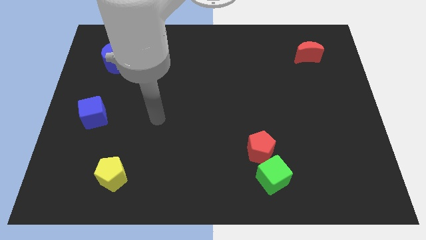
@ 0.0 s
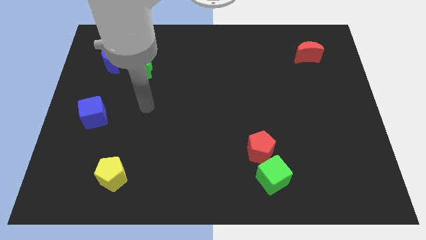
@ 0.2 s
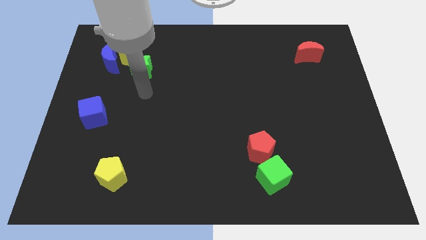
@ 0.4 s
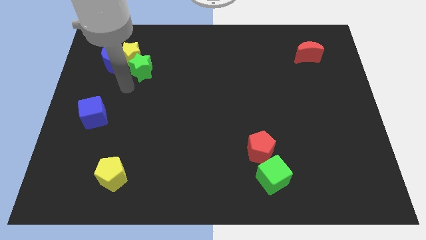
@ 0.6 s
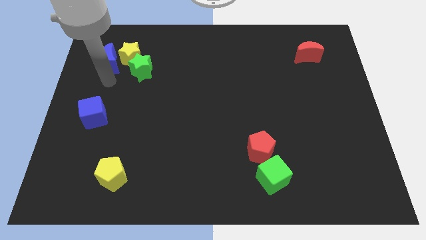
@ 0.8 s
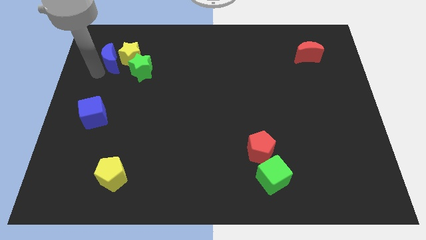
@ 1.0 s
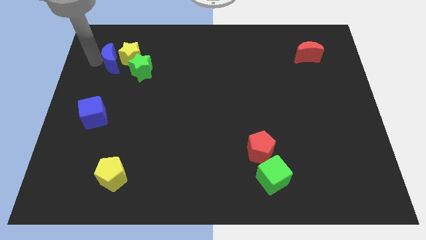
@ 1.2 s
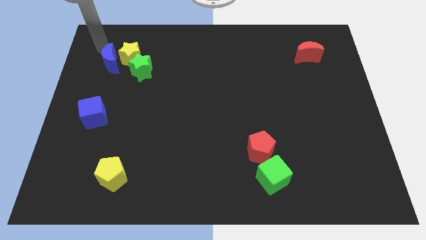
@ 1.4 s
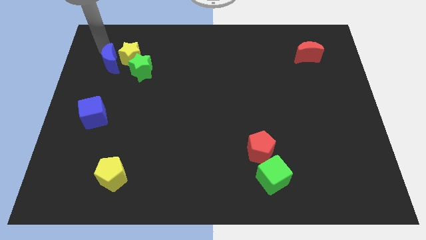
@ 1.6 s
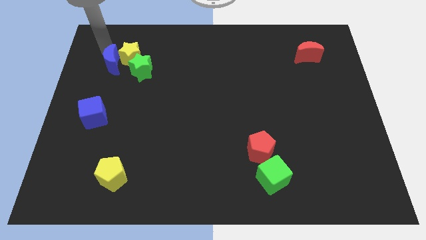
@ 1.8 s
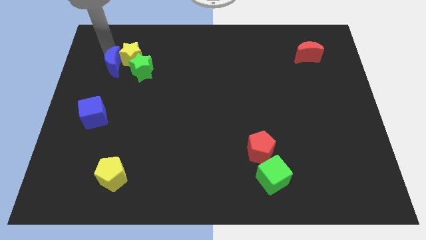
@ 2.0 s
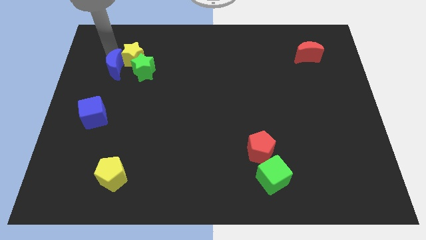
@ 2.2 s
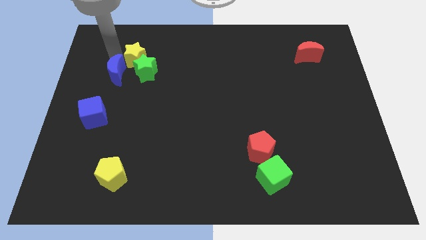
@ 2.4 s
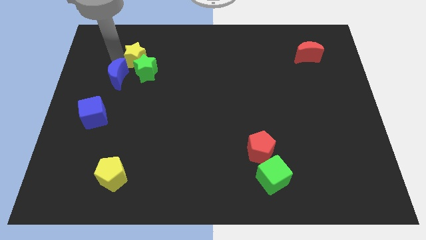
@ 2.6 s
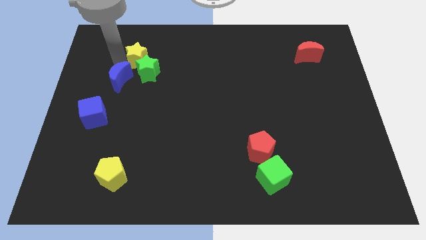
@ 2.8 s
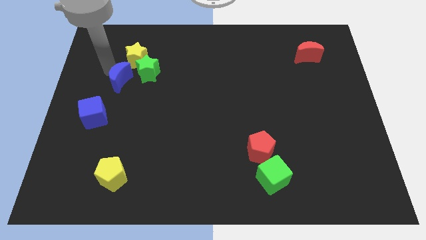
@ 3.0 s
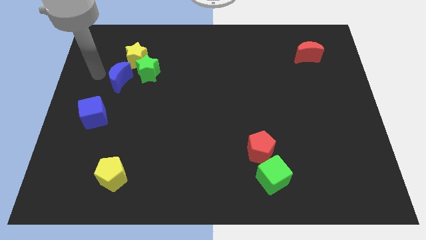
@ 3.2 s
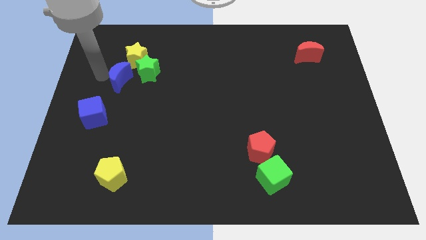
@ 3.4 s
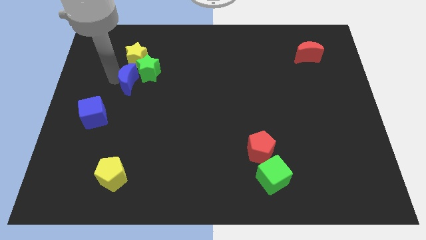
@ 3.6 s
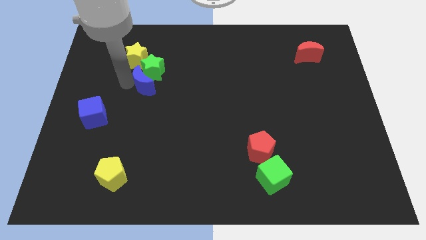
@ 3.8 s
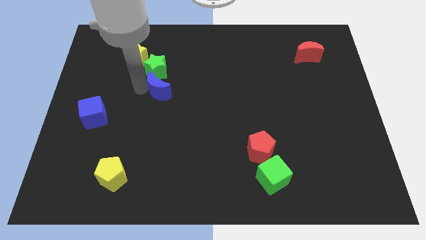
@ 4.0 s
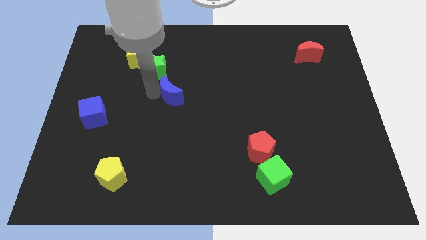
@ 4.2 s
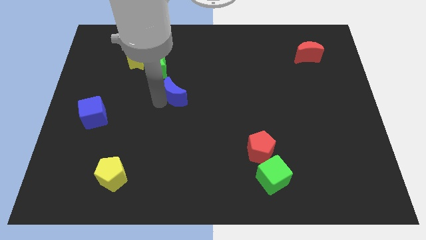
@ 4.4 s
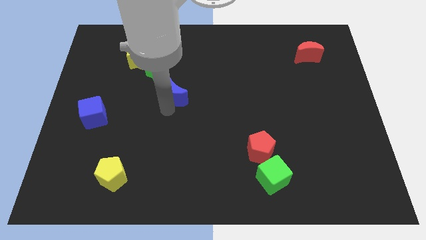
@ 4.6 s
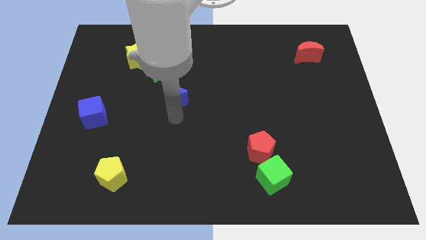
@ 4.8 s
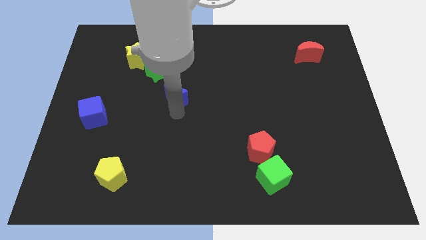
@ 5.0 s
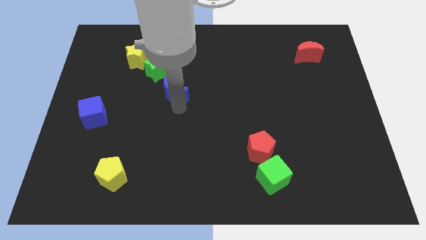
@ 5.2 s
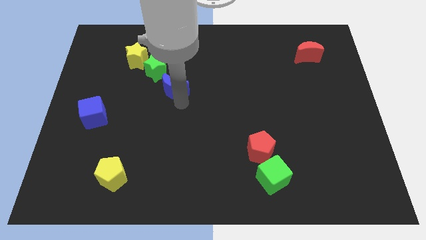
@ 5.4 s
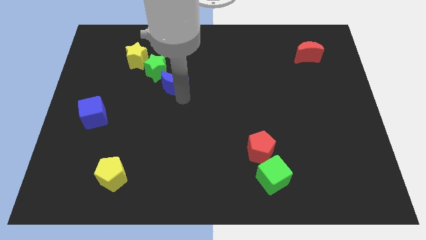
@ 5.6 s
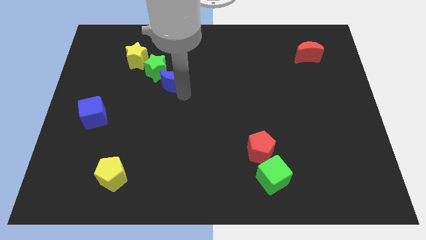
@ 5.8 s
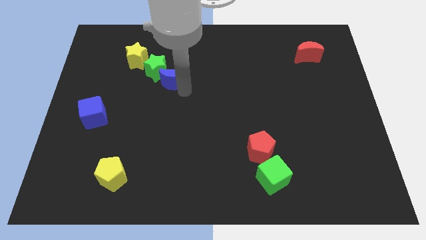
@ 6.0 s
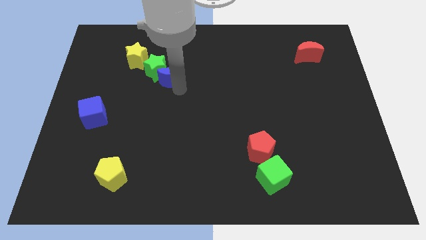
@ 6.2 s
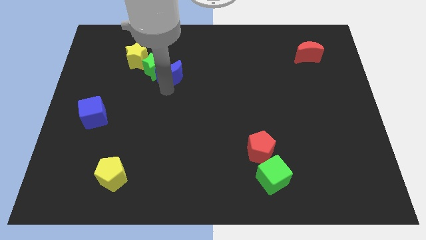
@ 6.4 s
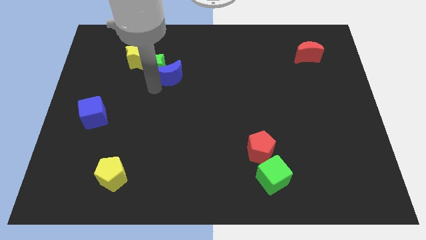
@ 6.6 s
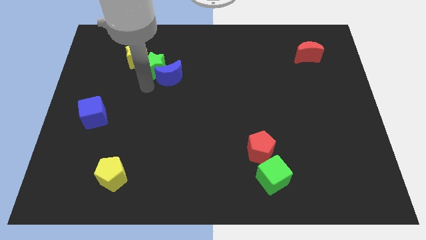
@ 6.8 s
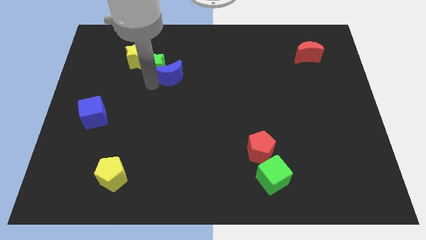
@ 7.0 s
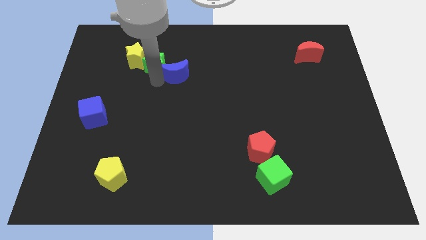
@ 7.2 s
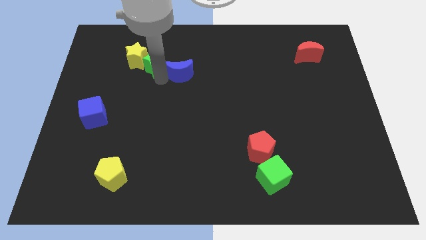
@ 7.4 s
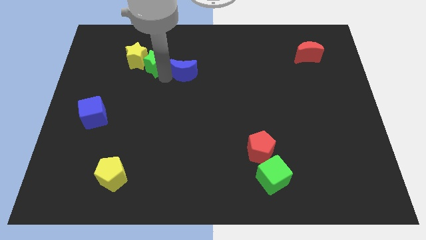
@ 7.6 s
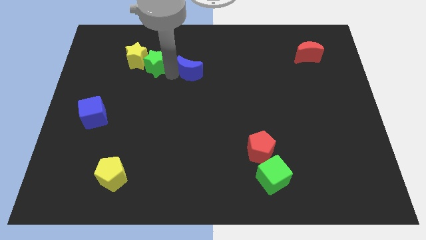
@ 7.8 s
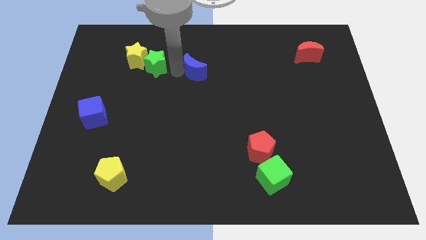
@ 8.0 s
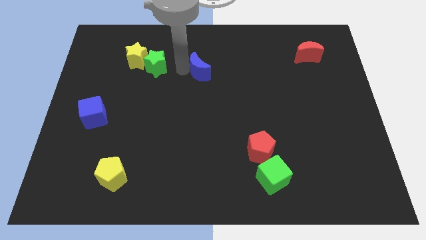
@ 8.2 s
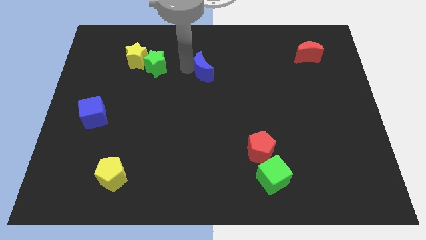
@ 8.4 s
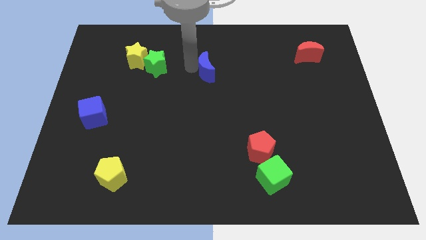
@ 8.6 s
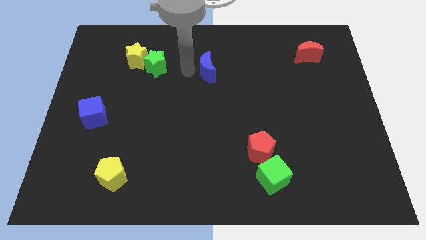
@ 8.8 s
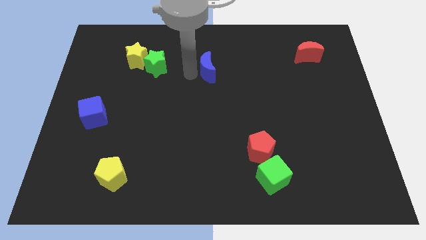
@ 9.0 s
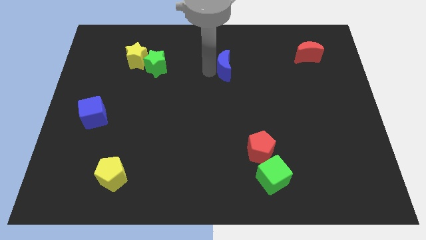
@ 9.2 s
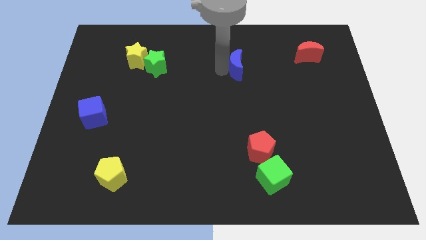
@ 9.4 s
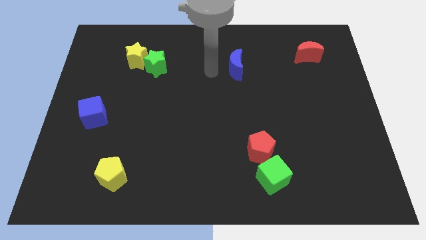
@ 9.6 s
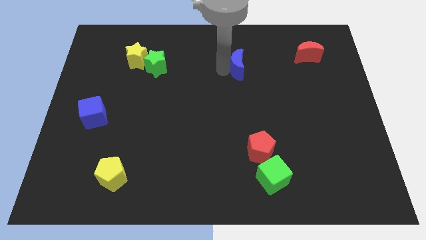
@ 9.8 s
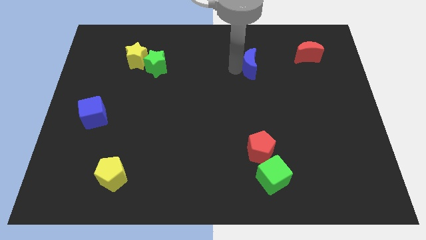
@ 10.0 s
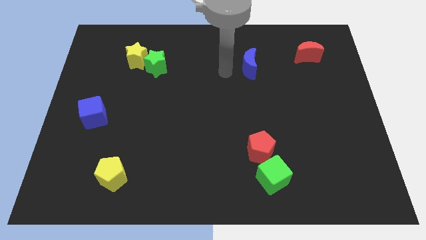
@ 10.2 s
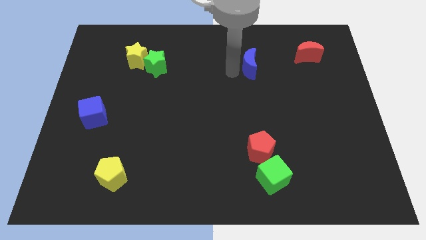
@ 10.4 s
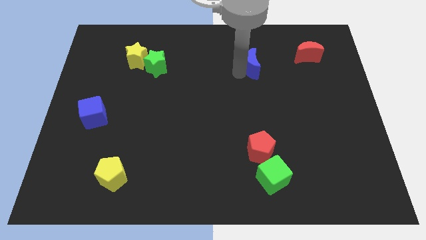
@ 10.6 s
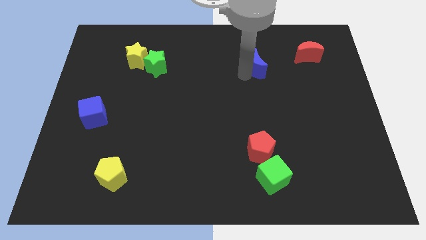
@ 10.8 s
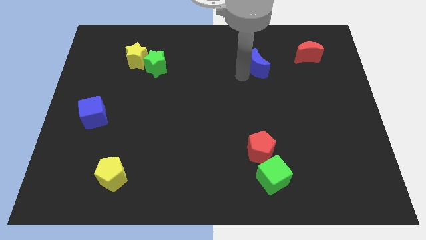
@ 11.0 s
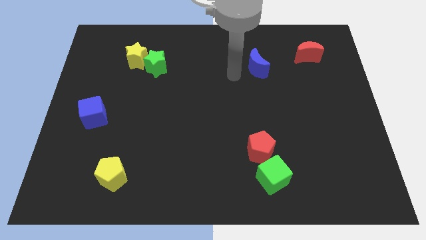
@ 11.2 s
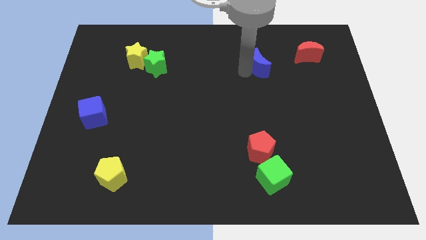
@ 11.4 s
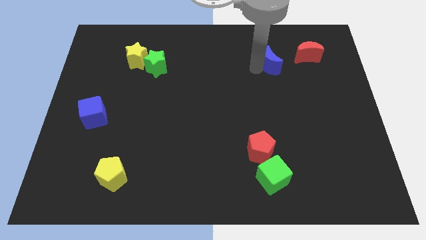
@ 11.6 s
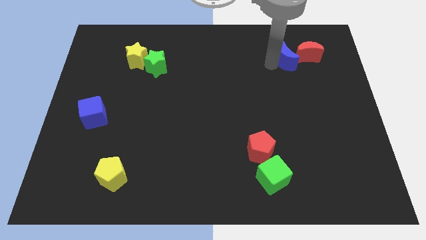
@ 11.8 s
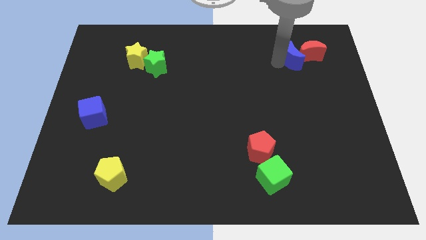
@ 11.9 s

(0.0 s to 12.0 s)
push the blue moon towards the red moon

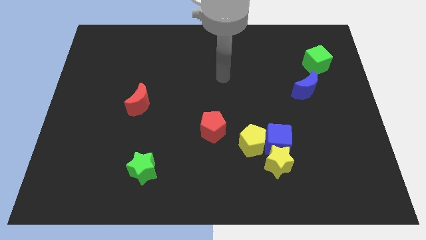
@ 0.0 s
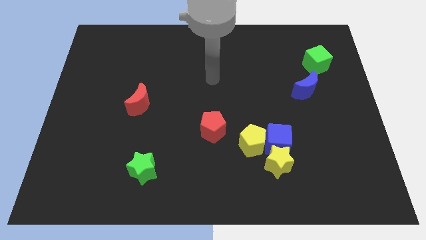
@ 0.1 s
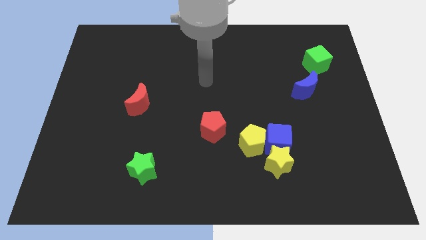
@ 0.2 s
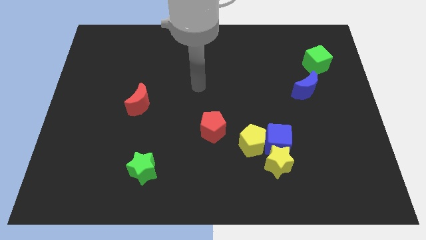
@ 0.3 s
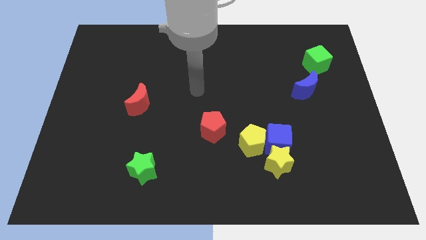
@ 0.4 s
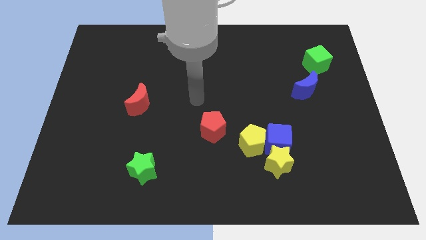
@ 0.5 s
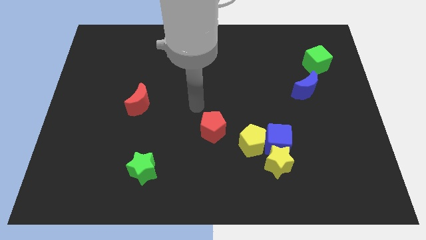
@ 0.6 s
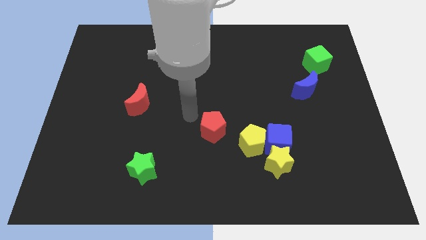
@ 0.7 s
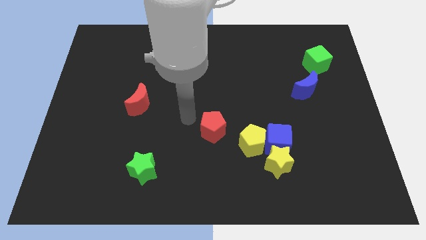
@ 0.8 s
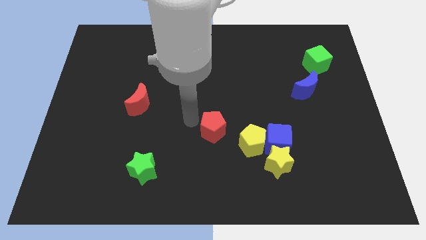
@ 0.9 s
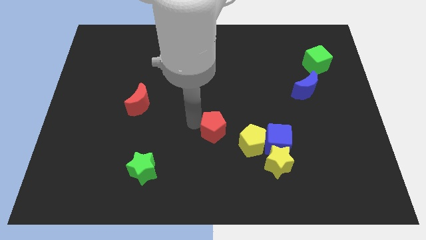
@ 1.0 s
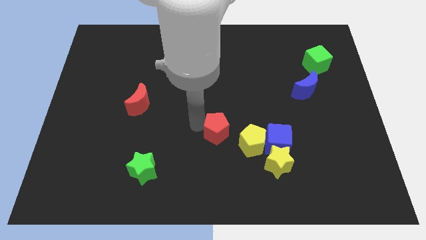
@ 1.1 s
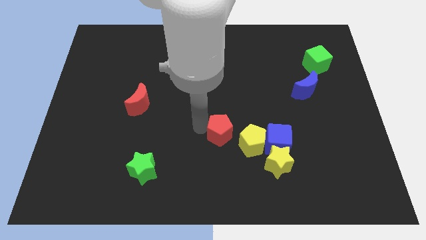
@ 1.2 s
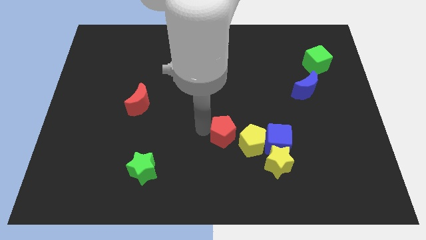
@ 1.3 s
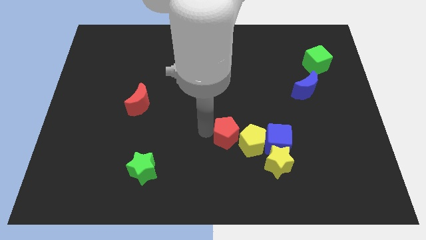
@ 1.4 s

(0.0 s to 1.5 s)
slide the red pentagon to the yellow pentagon
